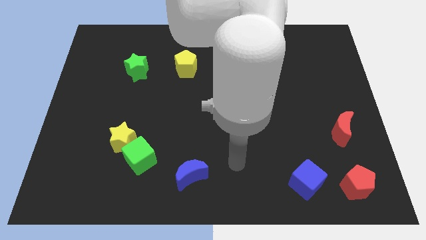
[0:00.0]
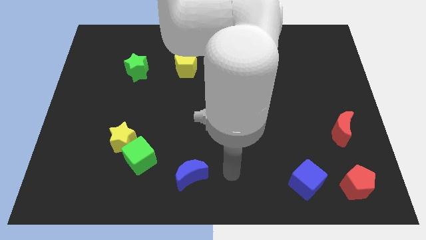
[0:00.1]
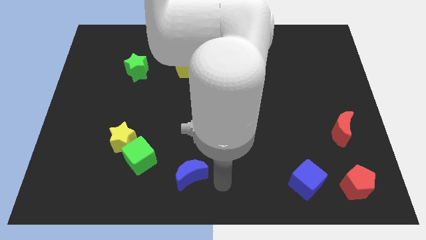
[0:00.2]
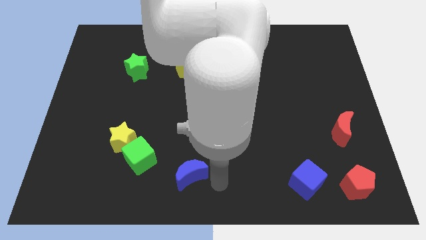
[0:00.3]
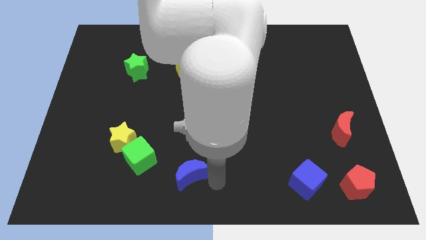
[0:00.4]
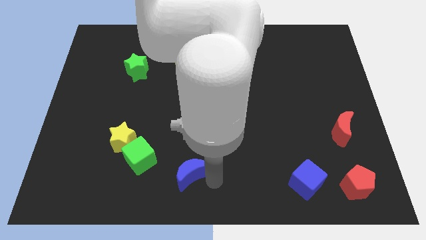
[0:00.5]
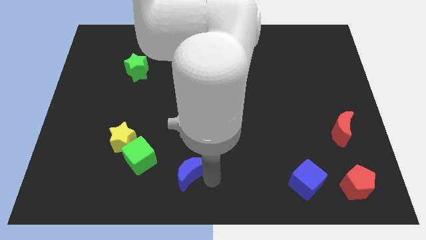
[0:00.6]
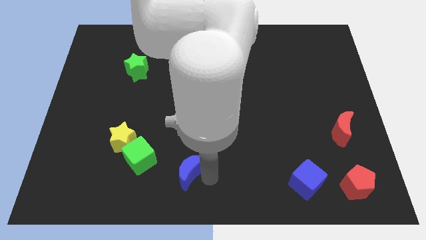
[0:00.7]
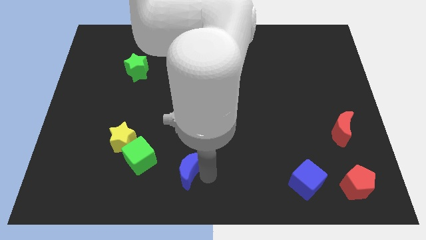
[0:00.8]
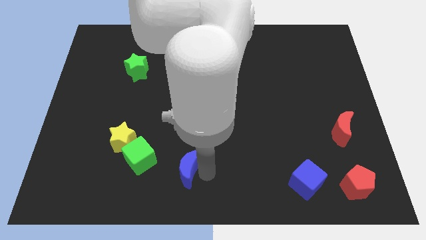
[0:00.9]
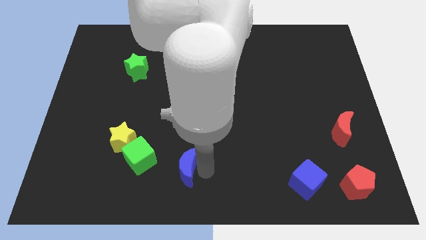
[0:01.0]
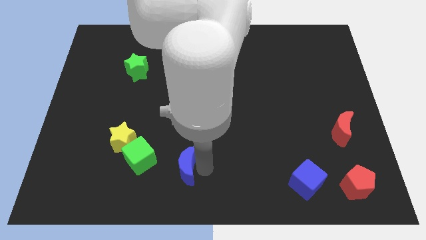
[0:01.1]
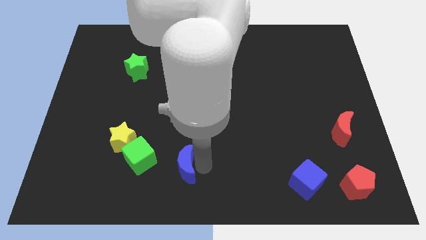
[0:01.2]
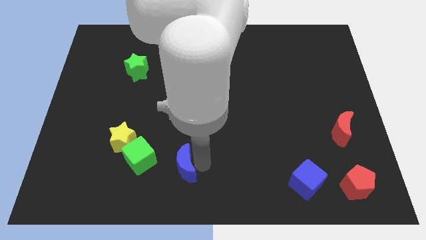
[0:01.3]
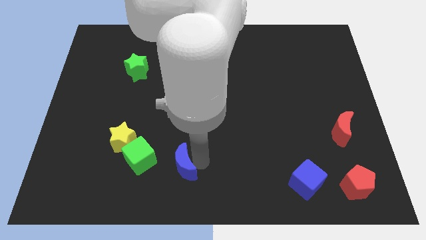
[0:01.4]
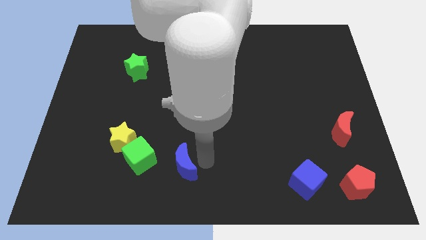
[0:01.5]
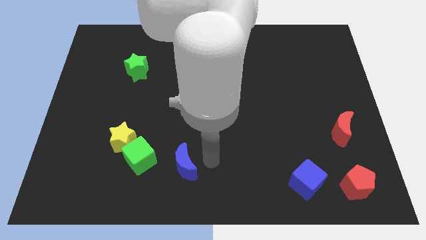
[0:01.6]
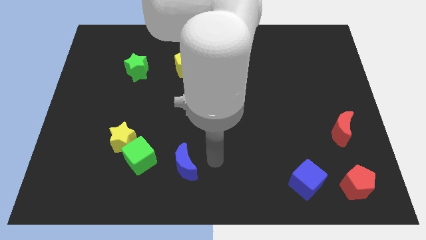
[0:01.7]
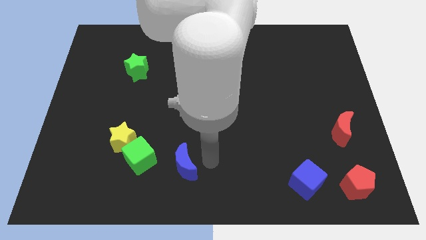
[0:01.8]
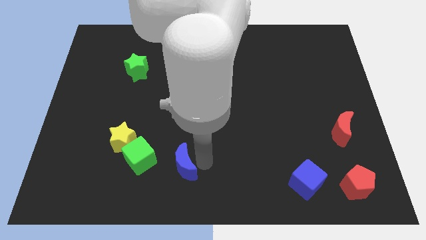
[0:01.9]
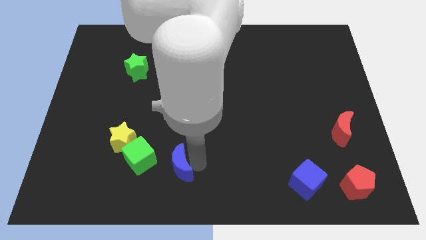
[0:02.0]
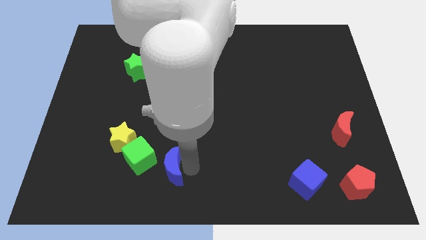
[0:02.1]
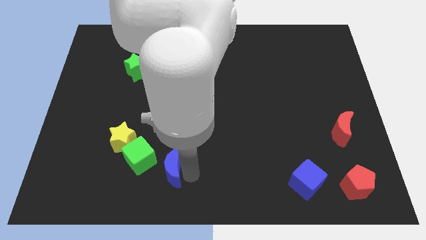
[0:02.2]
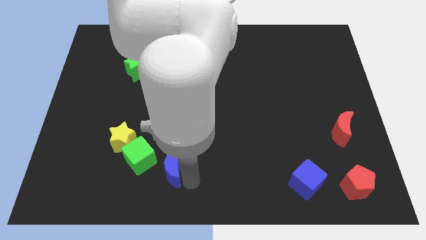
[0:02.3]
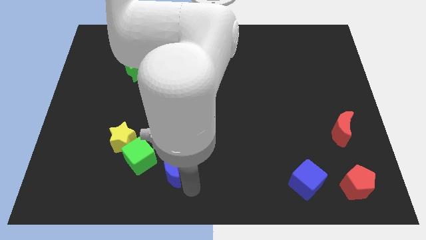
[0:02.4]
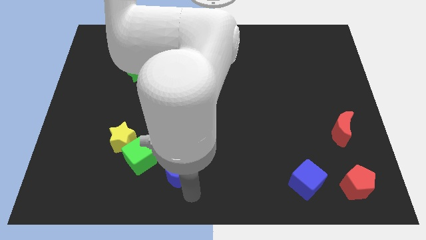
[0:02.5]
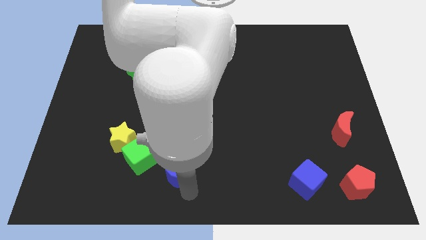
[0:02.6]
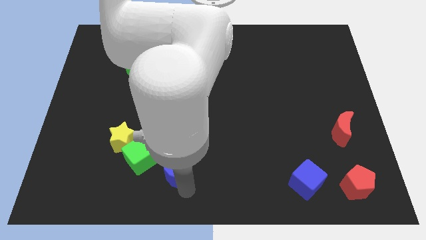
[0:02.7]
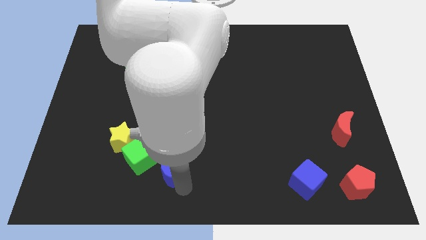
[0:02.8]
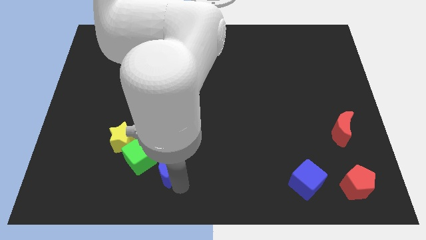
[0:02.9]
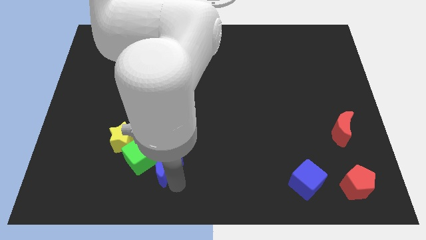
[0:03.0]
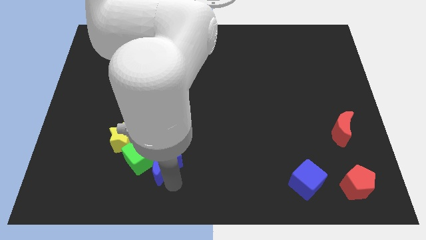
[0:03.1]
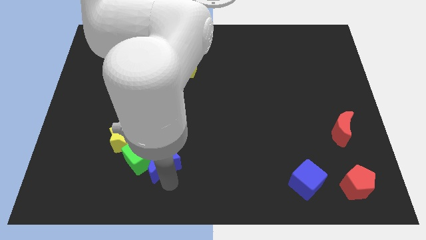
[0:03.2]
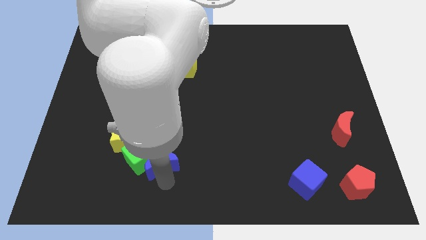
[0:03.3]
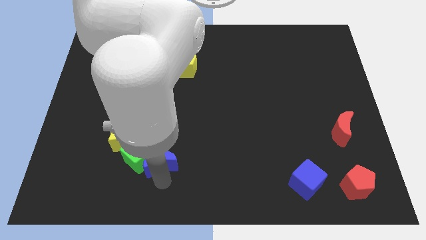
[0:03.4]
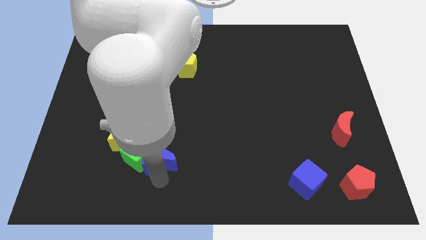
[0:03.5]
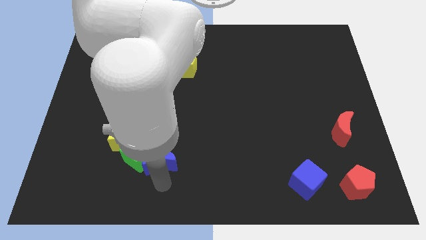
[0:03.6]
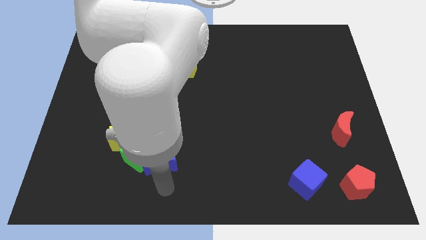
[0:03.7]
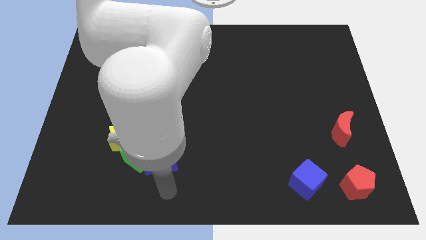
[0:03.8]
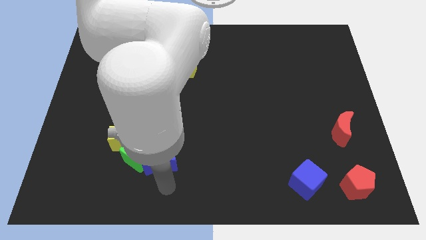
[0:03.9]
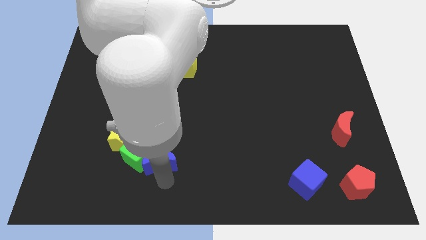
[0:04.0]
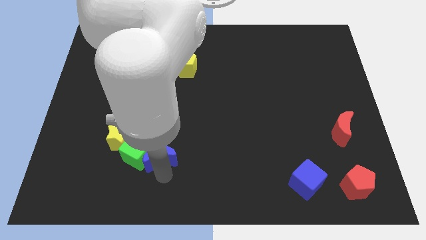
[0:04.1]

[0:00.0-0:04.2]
slide the blue moon up and left slightly

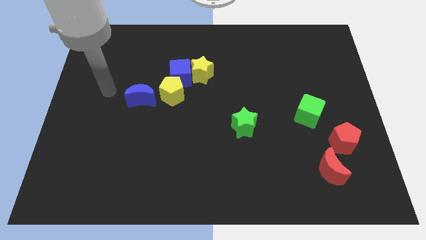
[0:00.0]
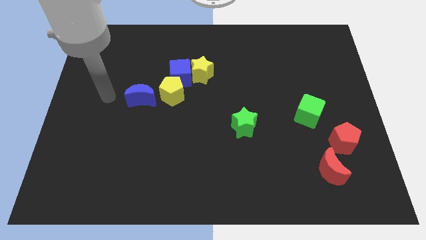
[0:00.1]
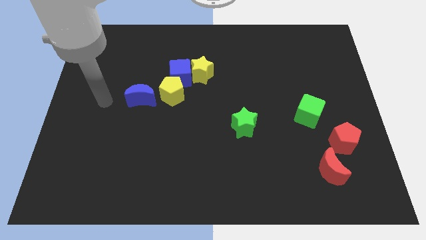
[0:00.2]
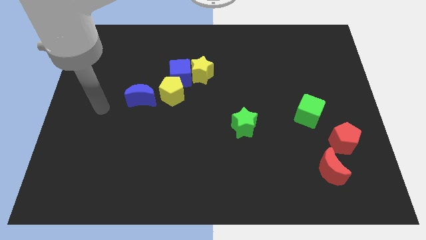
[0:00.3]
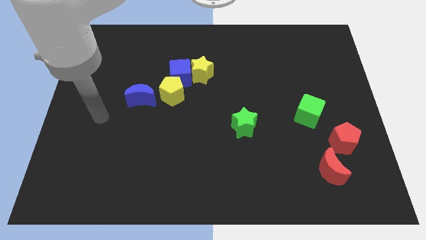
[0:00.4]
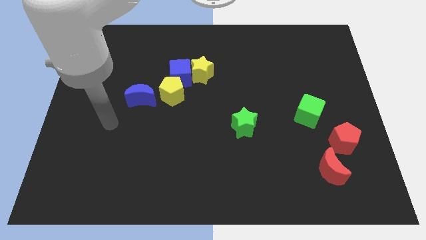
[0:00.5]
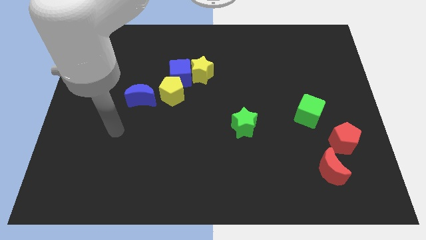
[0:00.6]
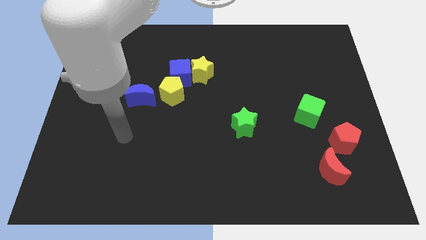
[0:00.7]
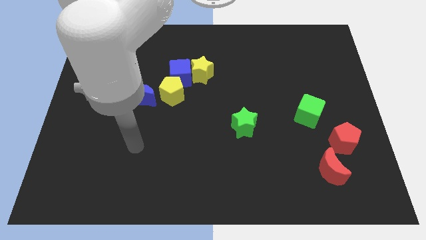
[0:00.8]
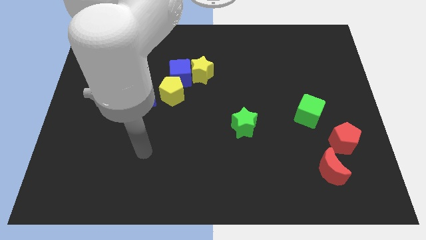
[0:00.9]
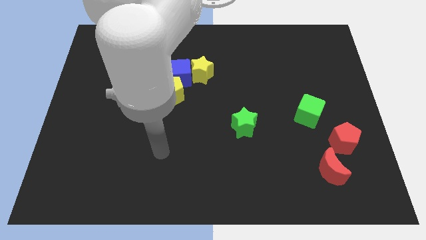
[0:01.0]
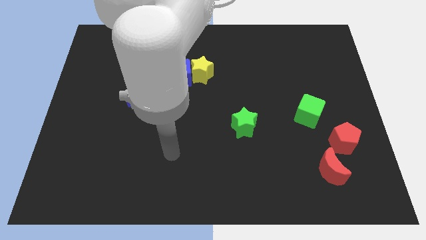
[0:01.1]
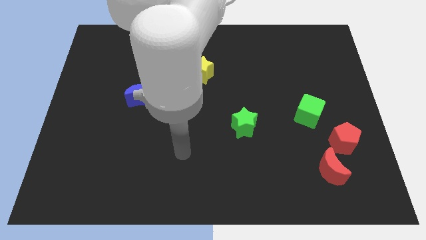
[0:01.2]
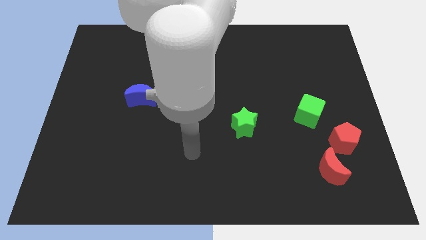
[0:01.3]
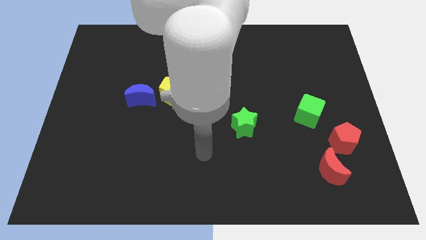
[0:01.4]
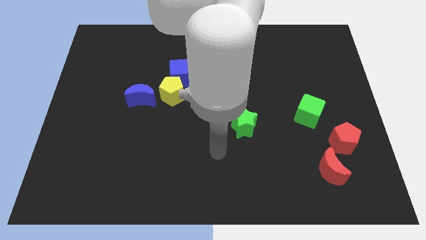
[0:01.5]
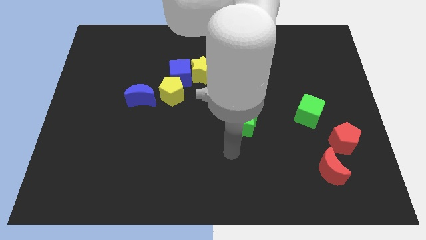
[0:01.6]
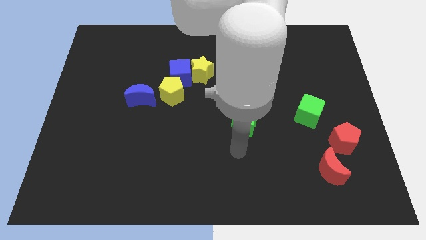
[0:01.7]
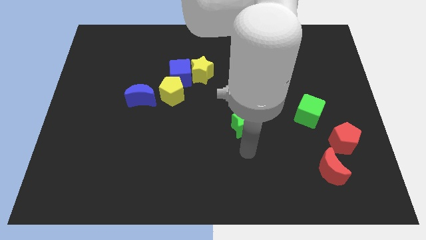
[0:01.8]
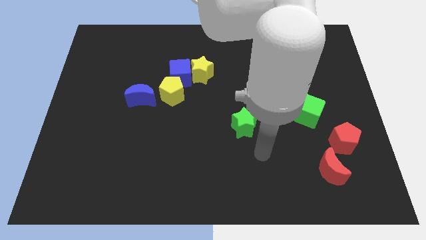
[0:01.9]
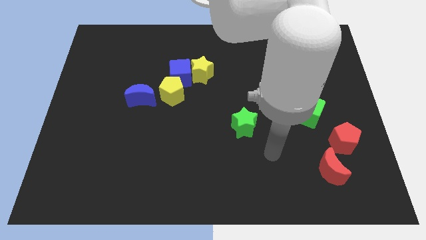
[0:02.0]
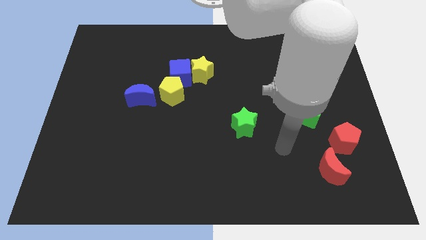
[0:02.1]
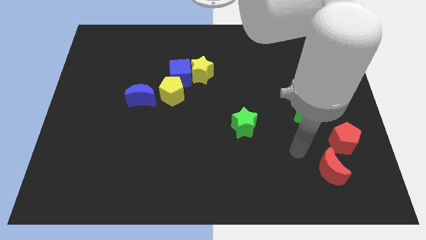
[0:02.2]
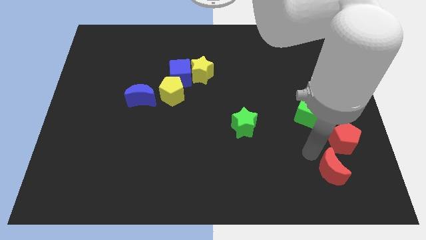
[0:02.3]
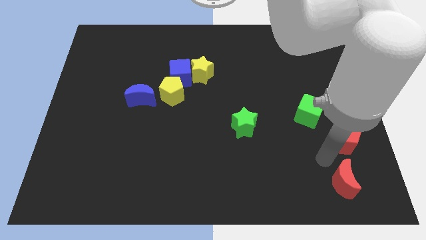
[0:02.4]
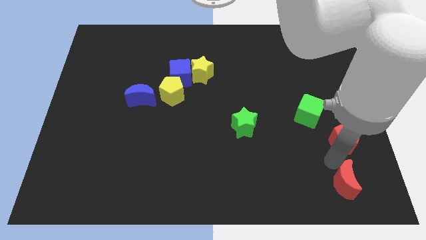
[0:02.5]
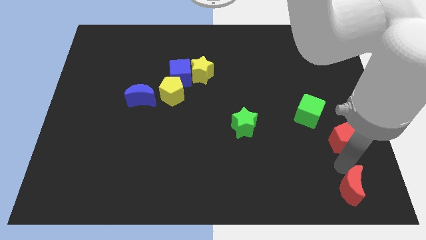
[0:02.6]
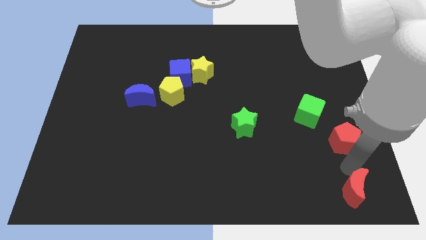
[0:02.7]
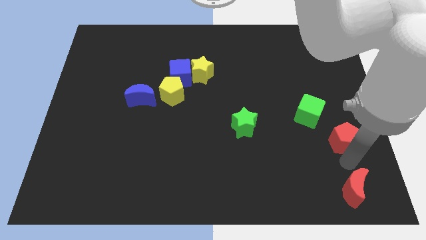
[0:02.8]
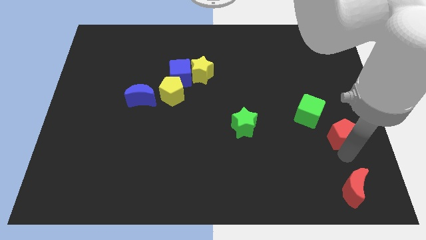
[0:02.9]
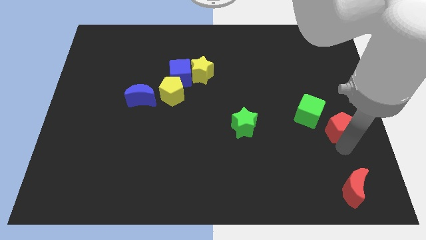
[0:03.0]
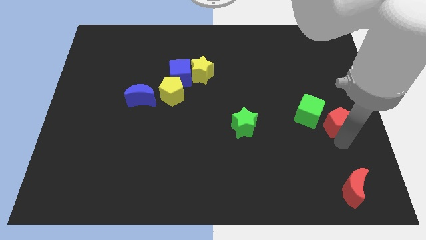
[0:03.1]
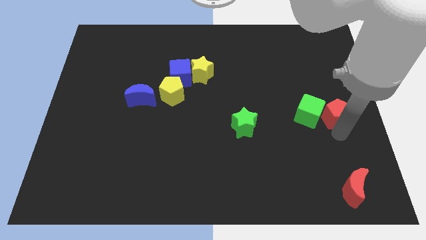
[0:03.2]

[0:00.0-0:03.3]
slightly slide the red pentagon up

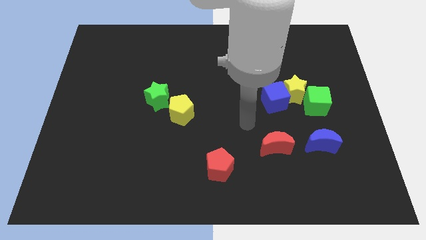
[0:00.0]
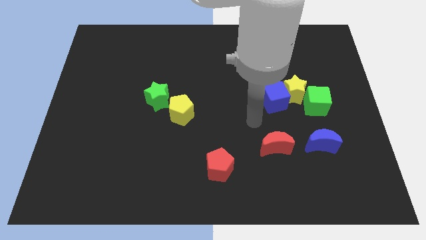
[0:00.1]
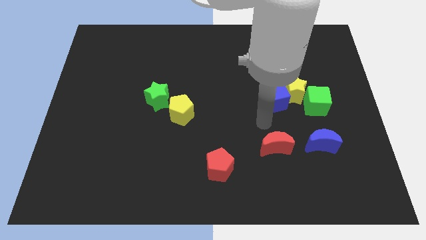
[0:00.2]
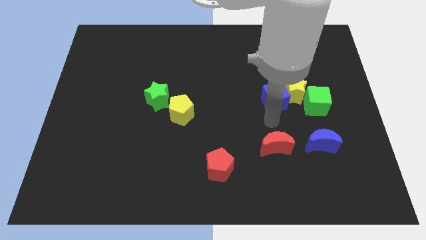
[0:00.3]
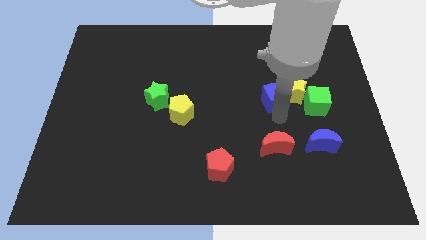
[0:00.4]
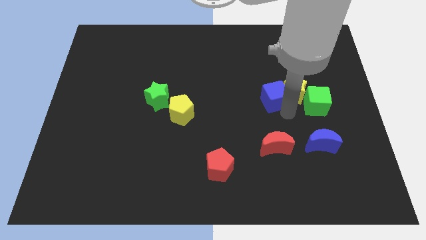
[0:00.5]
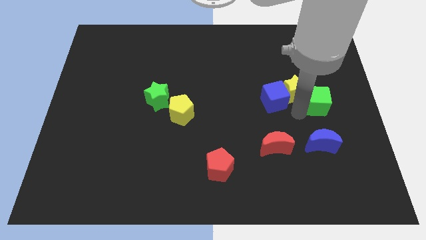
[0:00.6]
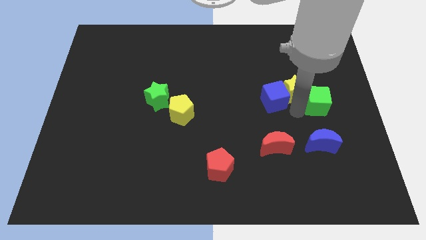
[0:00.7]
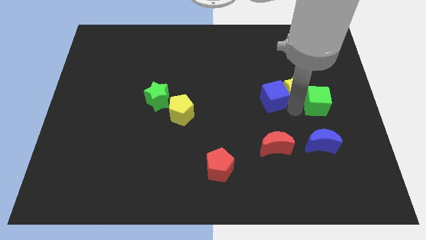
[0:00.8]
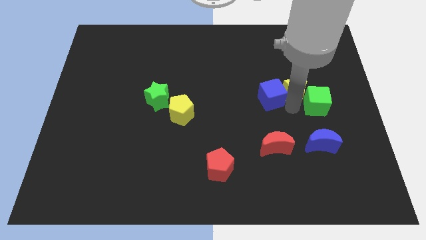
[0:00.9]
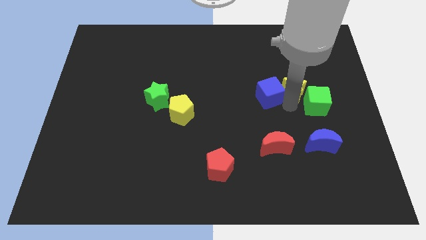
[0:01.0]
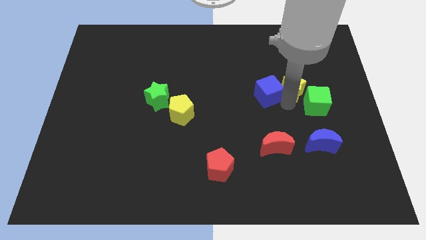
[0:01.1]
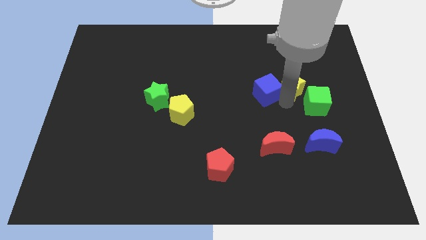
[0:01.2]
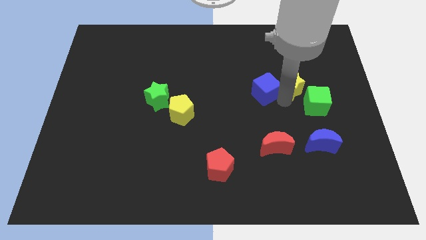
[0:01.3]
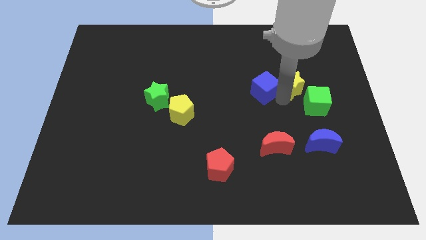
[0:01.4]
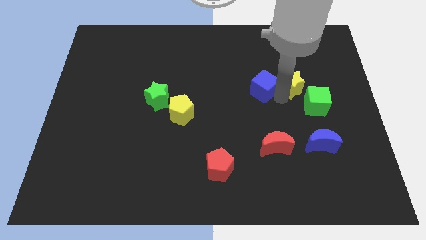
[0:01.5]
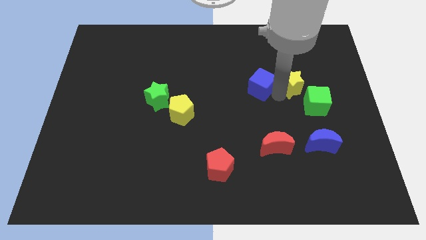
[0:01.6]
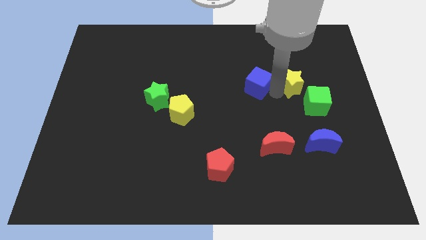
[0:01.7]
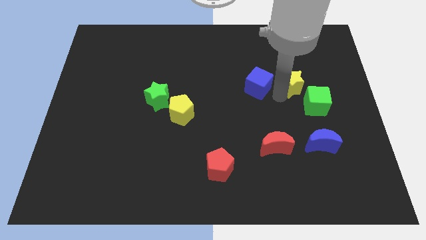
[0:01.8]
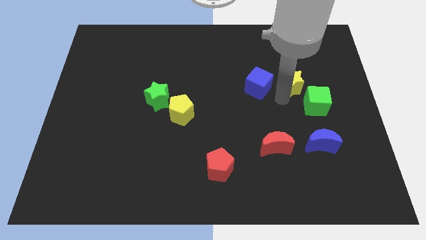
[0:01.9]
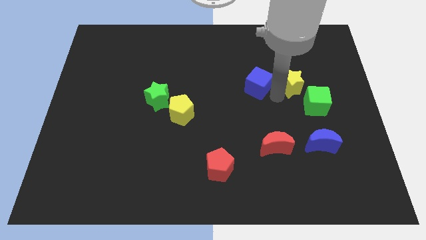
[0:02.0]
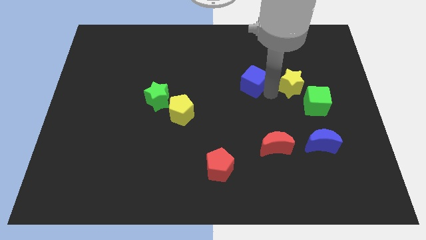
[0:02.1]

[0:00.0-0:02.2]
move the blue cube a bit up and then left
